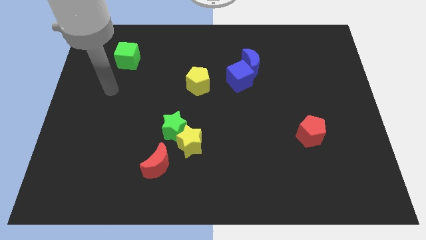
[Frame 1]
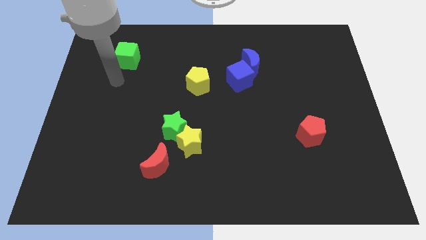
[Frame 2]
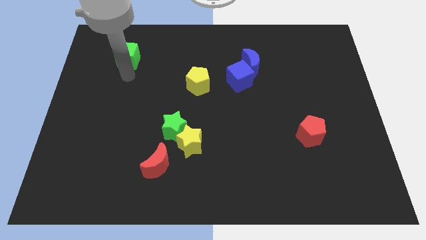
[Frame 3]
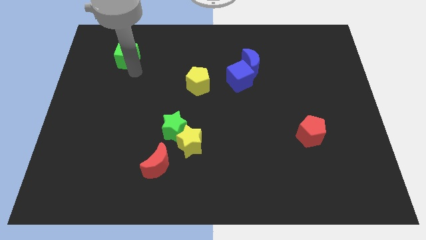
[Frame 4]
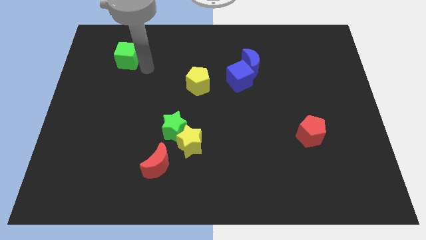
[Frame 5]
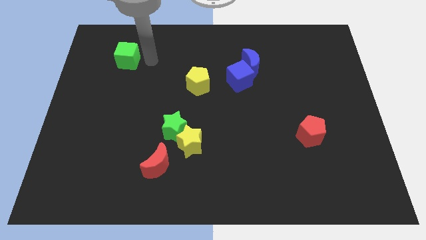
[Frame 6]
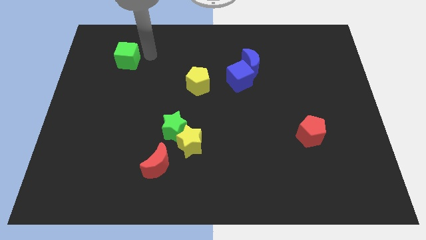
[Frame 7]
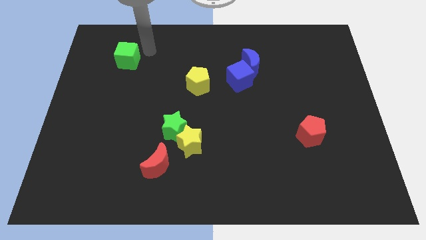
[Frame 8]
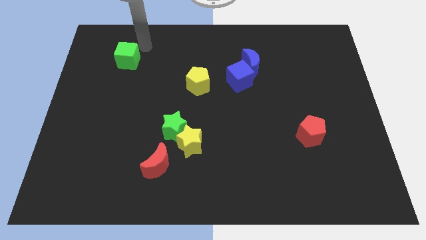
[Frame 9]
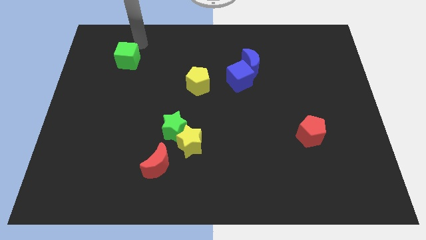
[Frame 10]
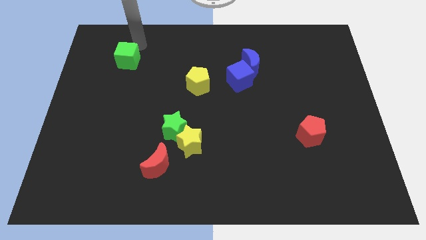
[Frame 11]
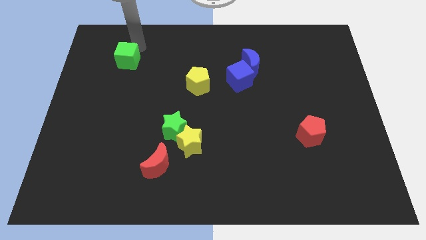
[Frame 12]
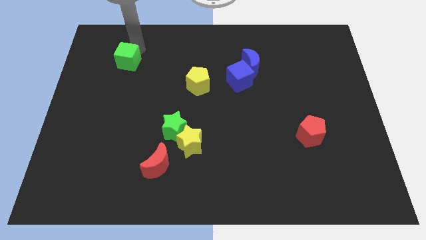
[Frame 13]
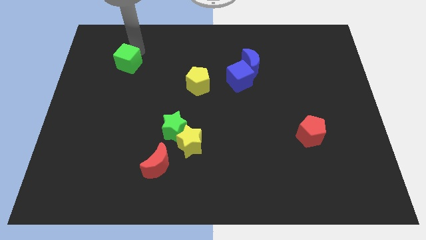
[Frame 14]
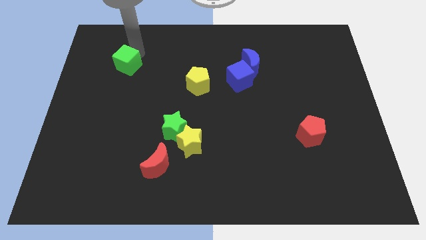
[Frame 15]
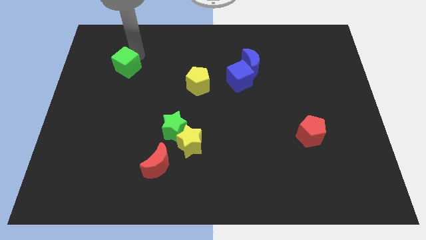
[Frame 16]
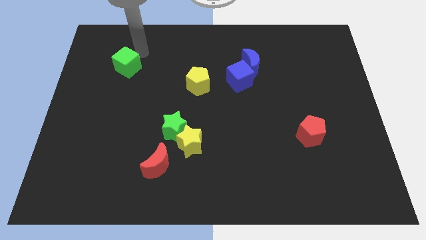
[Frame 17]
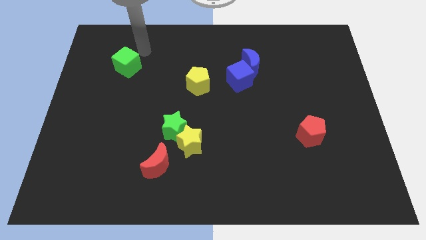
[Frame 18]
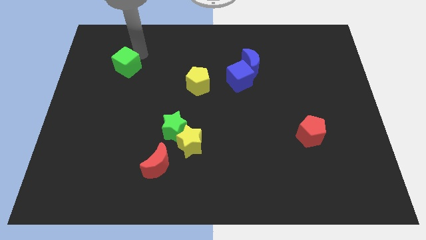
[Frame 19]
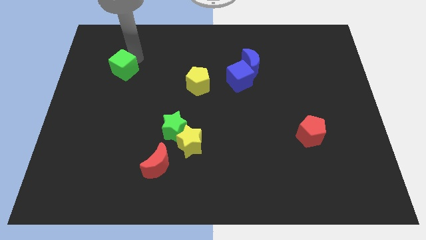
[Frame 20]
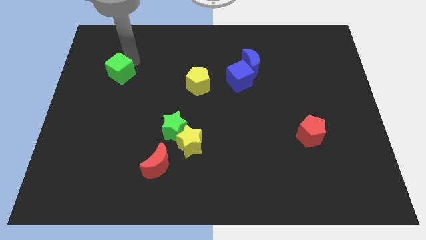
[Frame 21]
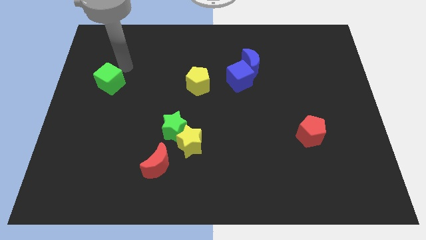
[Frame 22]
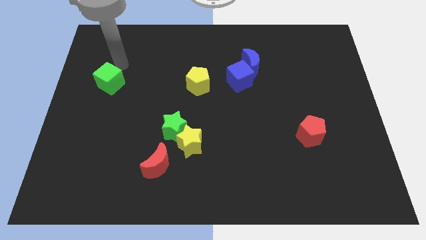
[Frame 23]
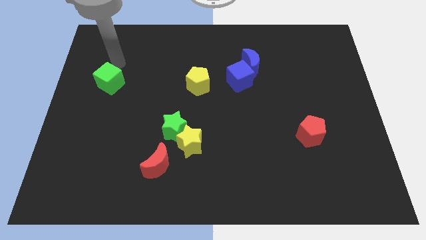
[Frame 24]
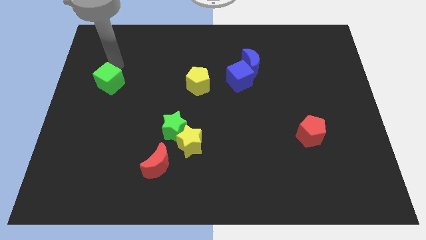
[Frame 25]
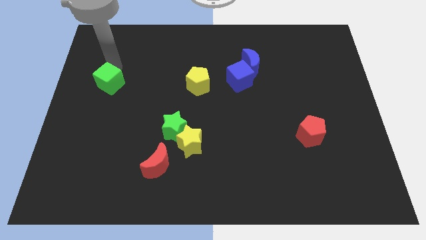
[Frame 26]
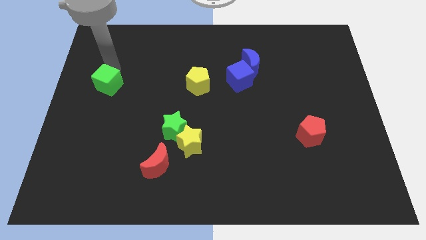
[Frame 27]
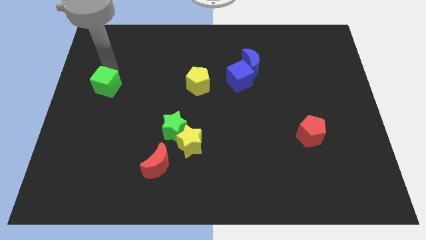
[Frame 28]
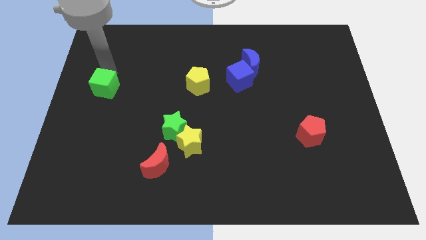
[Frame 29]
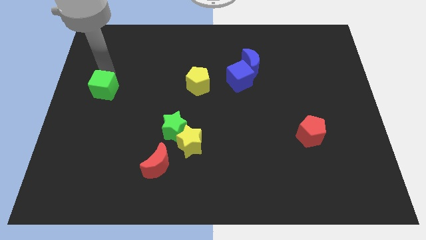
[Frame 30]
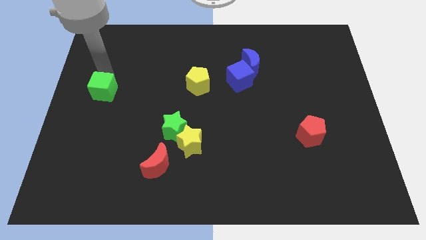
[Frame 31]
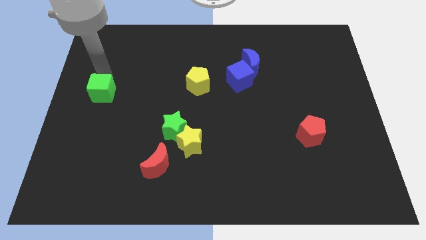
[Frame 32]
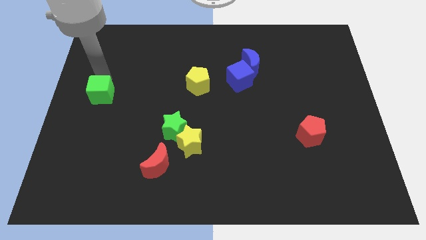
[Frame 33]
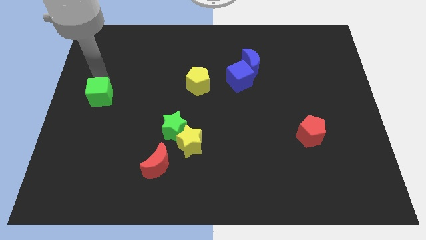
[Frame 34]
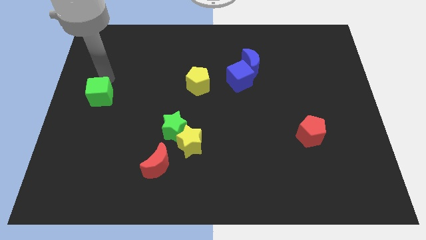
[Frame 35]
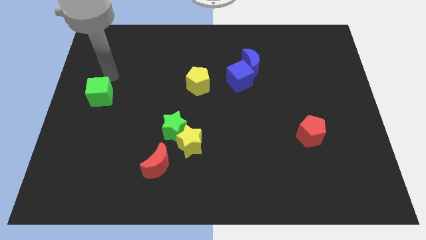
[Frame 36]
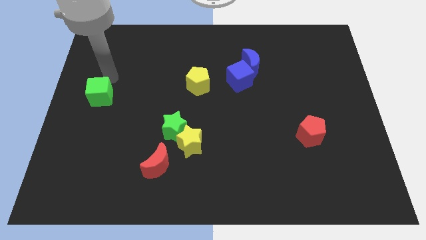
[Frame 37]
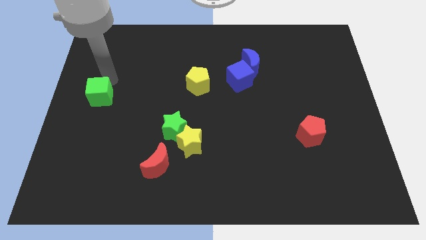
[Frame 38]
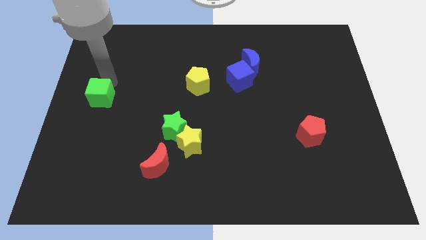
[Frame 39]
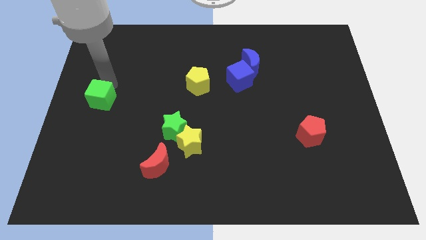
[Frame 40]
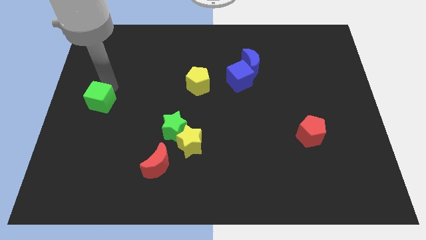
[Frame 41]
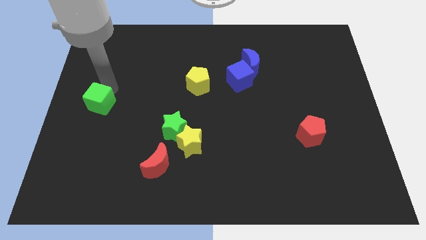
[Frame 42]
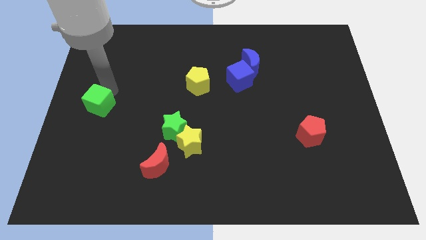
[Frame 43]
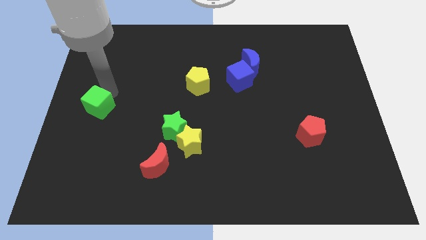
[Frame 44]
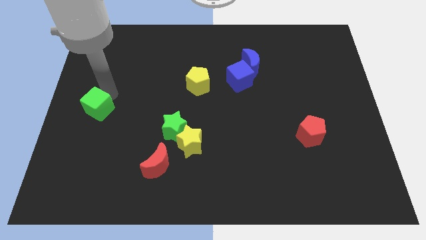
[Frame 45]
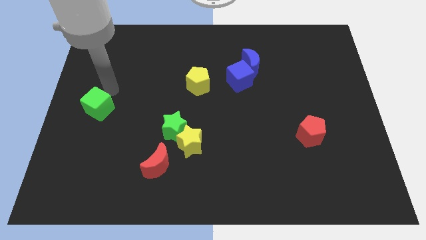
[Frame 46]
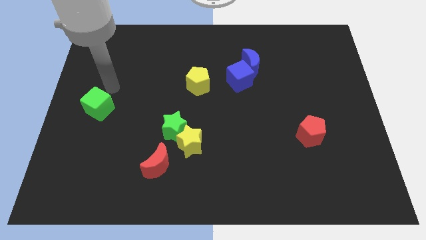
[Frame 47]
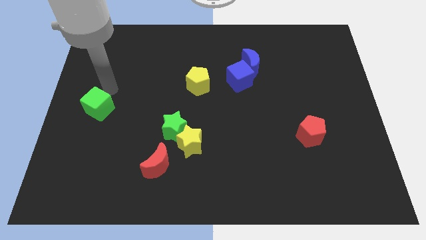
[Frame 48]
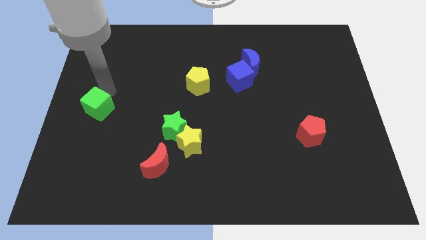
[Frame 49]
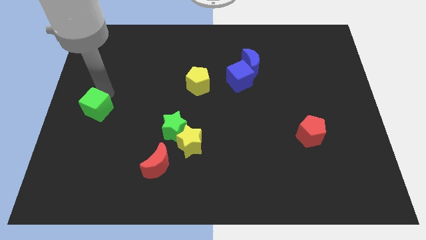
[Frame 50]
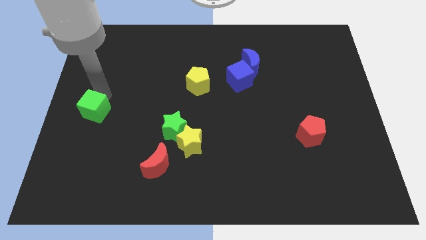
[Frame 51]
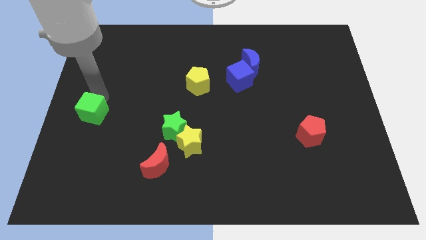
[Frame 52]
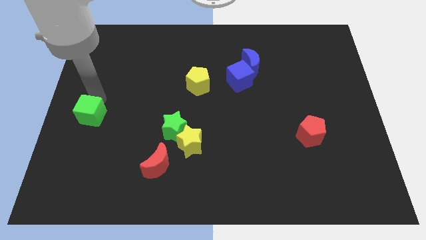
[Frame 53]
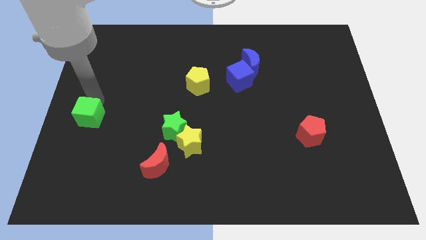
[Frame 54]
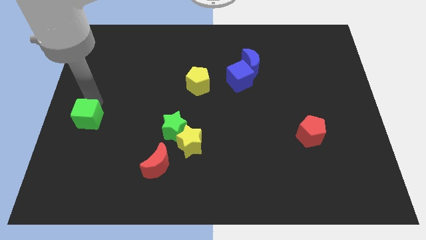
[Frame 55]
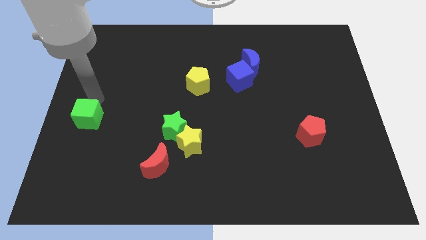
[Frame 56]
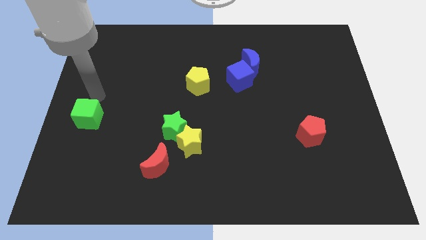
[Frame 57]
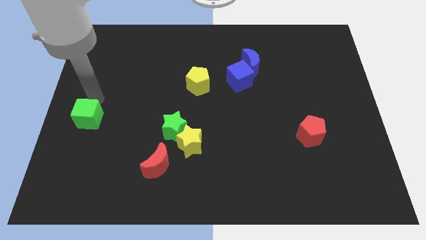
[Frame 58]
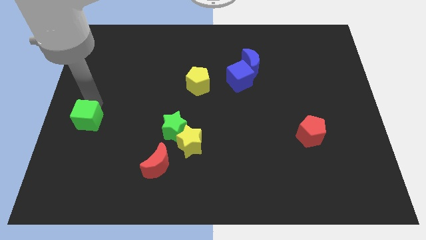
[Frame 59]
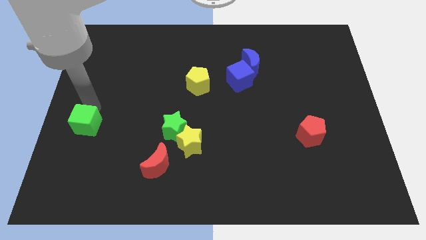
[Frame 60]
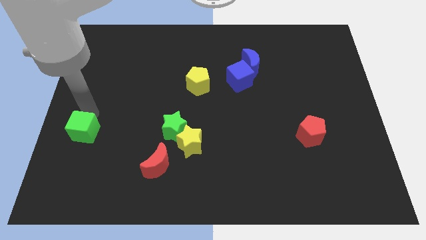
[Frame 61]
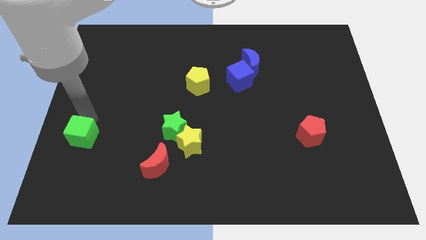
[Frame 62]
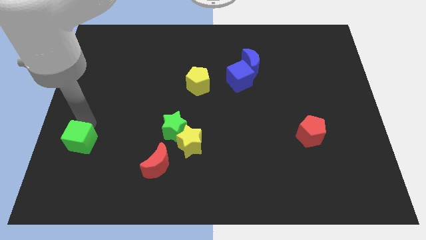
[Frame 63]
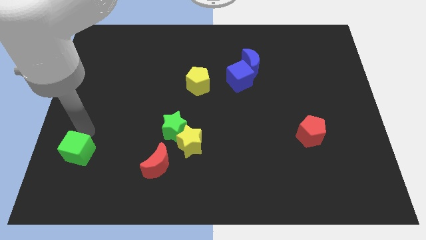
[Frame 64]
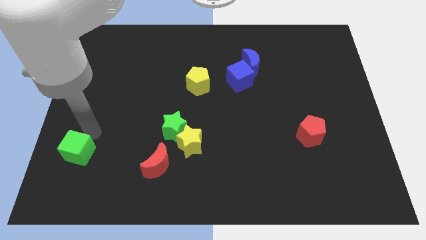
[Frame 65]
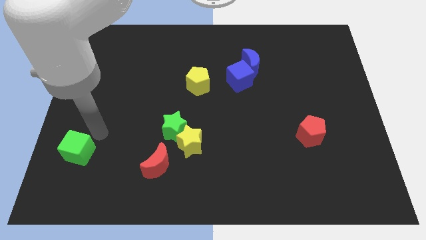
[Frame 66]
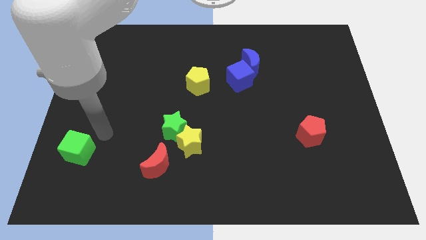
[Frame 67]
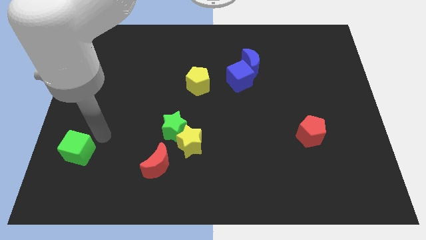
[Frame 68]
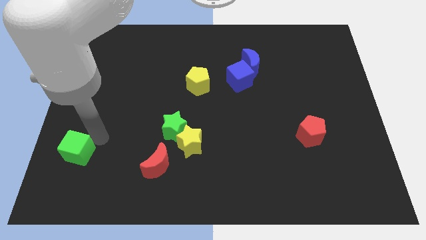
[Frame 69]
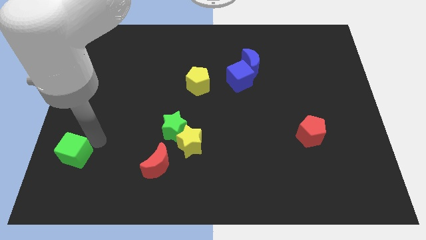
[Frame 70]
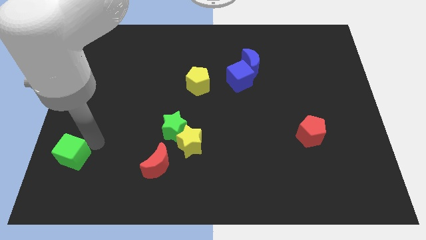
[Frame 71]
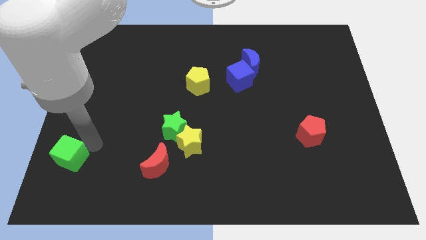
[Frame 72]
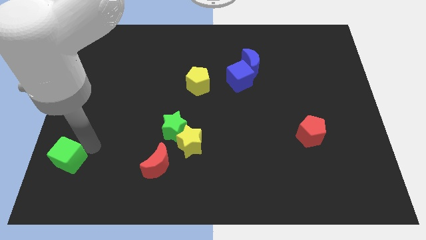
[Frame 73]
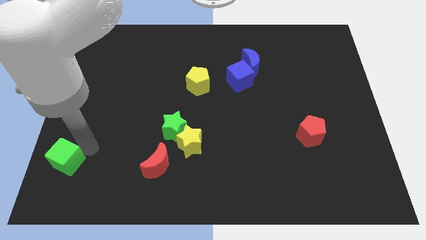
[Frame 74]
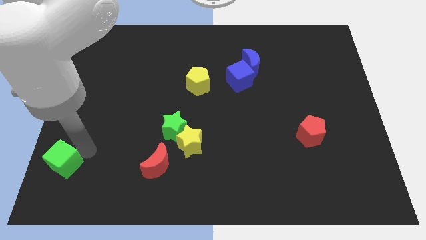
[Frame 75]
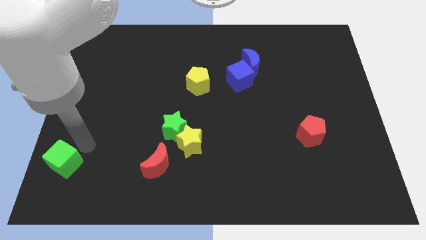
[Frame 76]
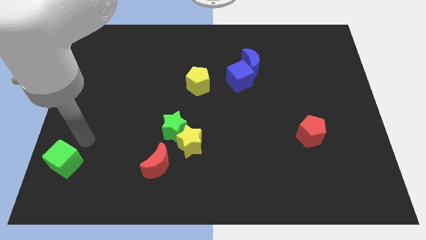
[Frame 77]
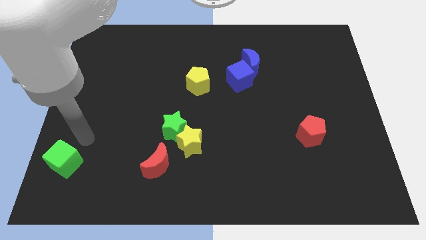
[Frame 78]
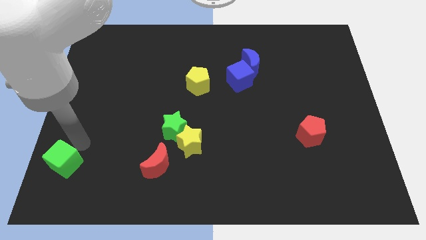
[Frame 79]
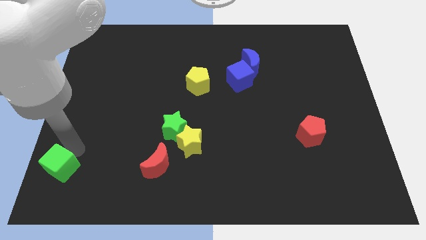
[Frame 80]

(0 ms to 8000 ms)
move the green cube to the bottom left of the board
